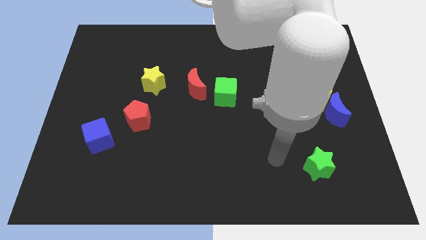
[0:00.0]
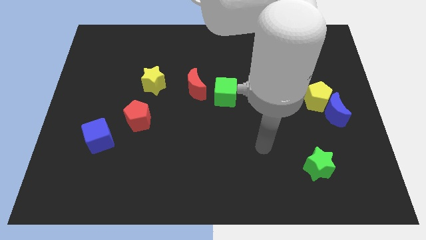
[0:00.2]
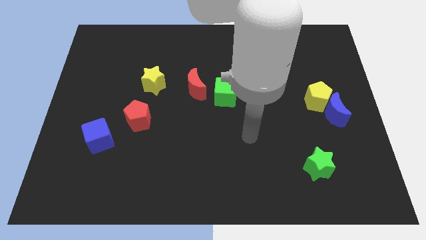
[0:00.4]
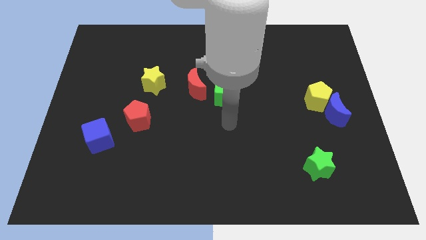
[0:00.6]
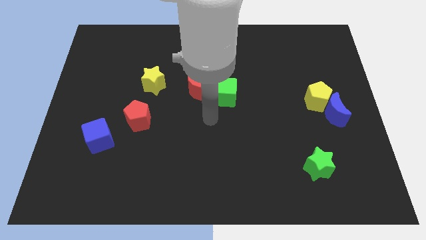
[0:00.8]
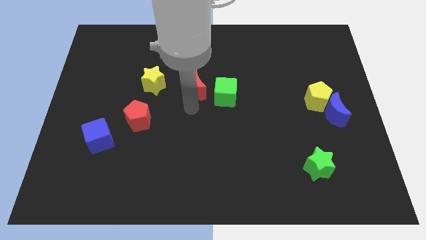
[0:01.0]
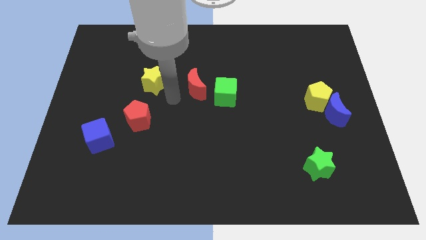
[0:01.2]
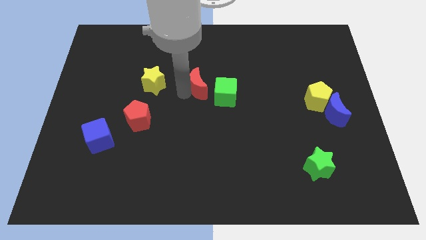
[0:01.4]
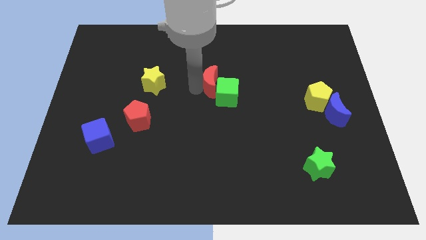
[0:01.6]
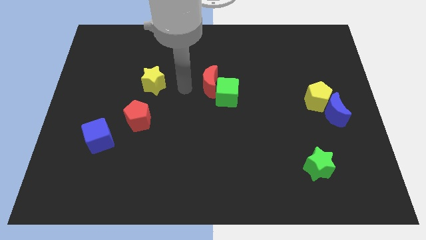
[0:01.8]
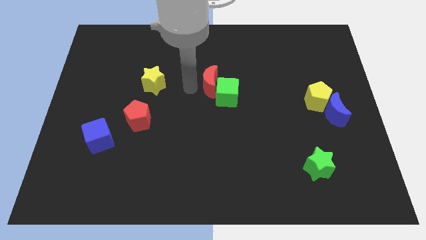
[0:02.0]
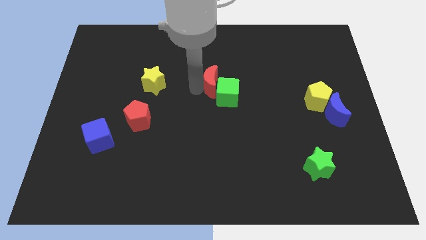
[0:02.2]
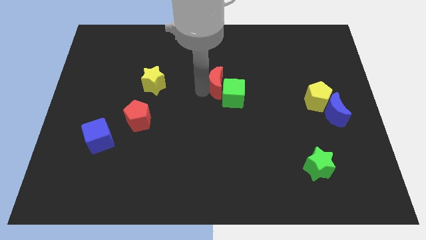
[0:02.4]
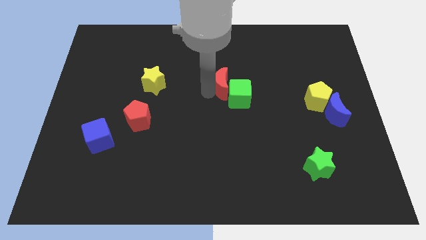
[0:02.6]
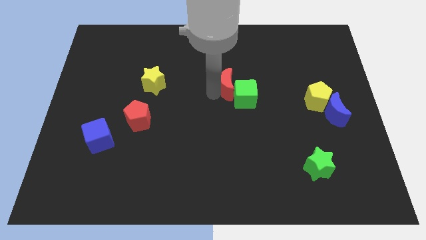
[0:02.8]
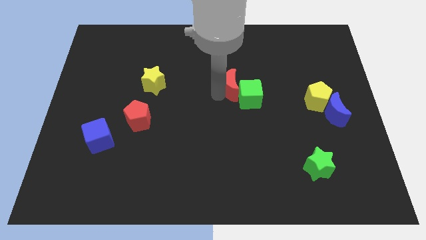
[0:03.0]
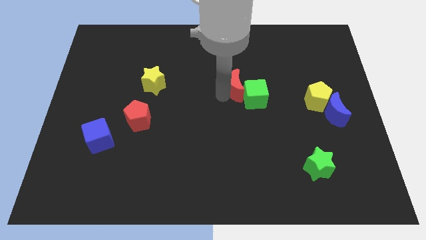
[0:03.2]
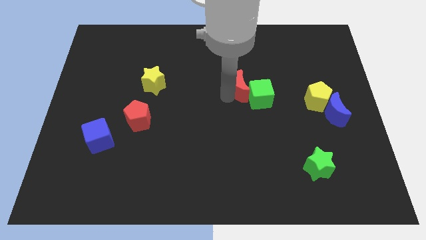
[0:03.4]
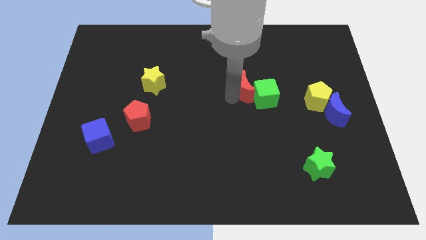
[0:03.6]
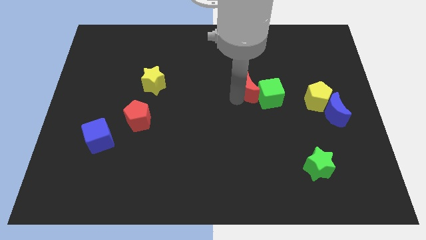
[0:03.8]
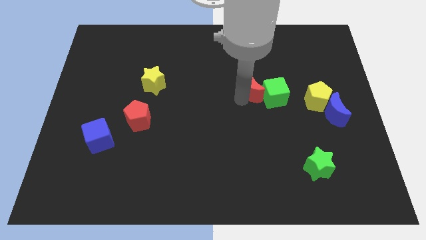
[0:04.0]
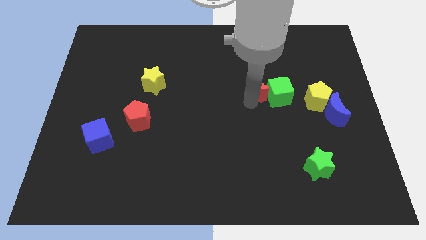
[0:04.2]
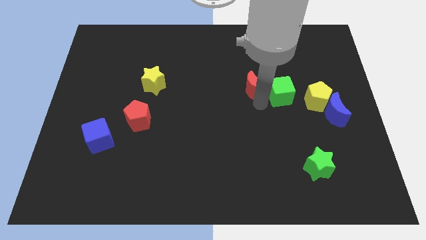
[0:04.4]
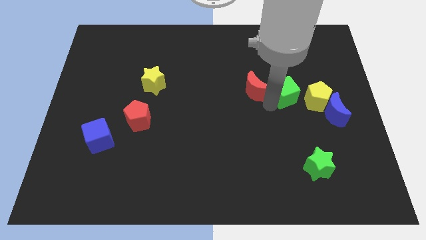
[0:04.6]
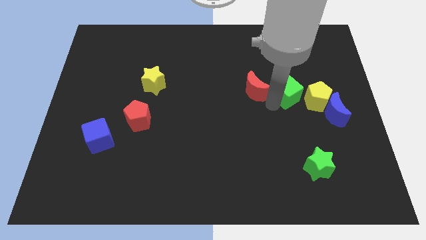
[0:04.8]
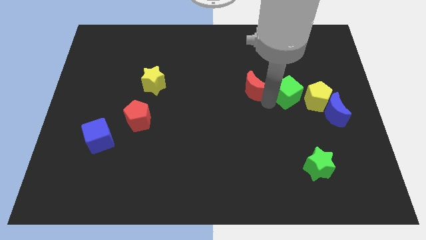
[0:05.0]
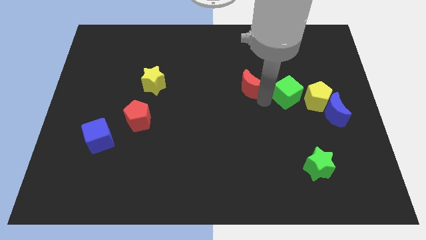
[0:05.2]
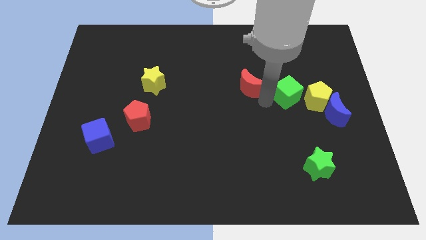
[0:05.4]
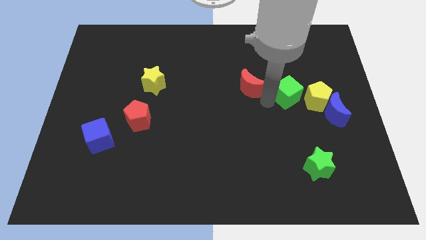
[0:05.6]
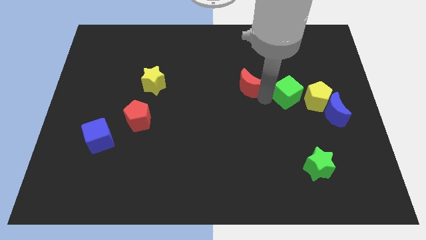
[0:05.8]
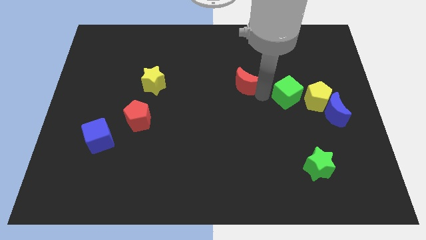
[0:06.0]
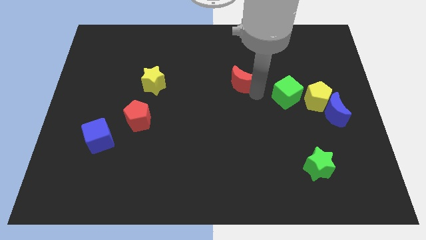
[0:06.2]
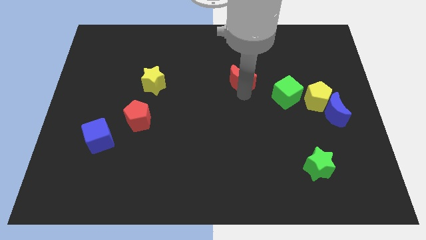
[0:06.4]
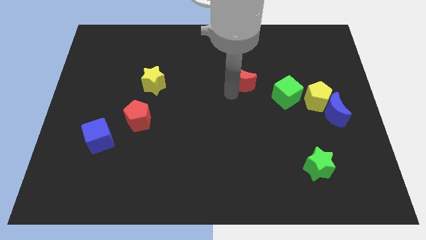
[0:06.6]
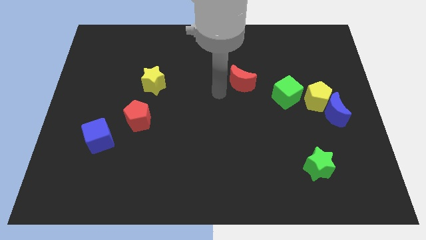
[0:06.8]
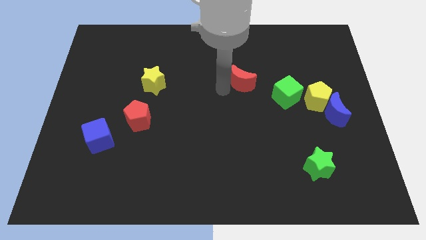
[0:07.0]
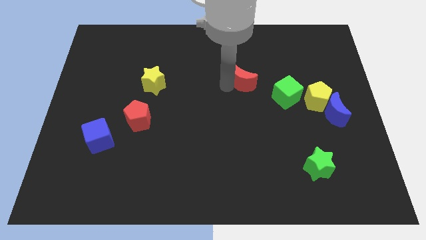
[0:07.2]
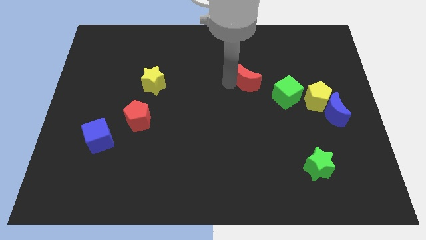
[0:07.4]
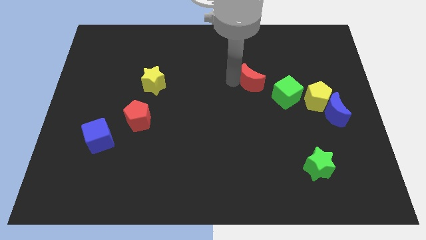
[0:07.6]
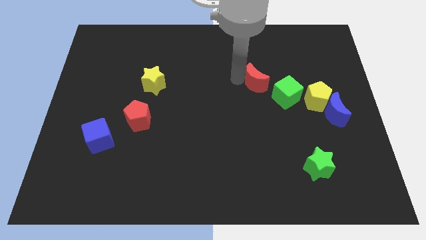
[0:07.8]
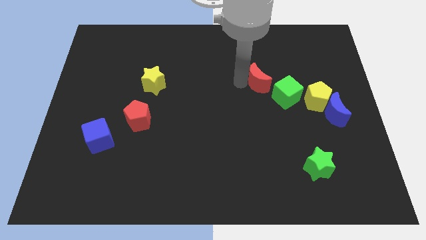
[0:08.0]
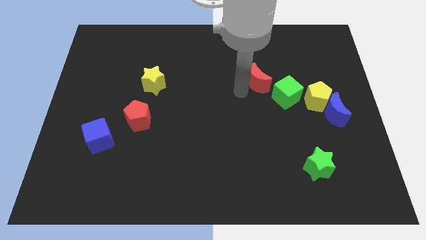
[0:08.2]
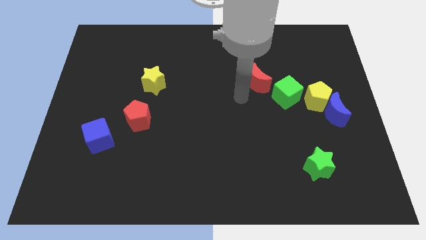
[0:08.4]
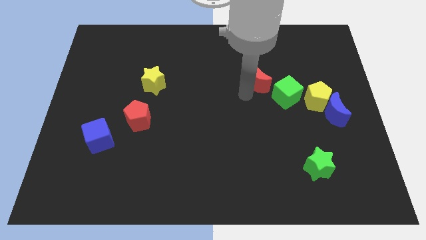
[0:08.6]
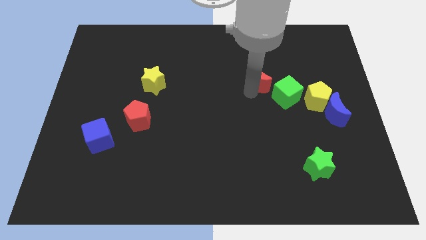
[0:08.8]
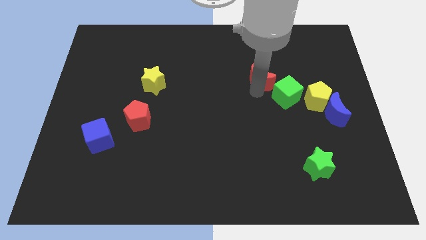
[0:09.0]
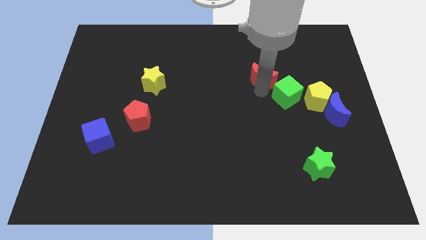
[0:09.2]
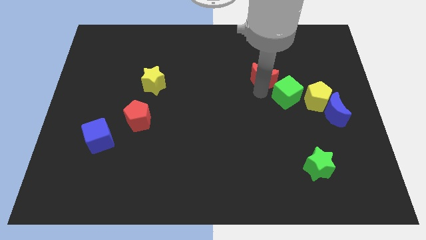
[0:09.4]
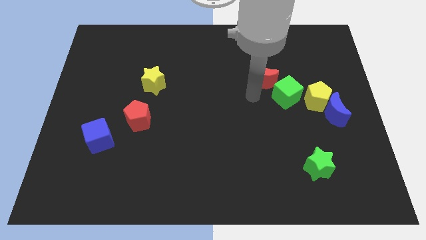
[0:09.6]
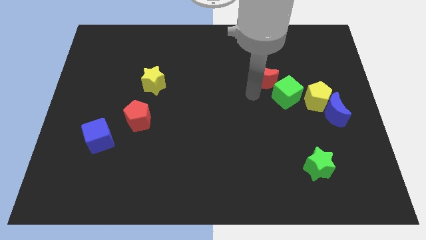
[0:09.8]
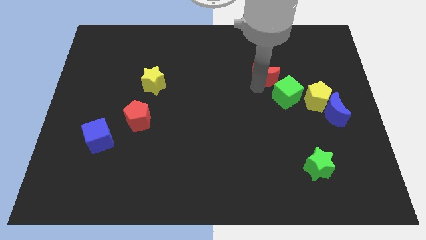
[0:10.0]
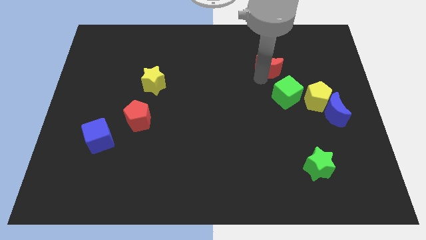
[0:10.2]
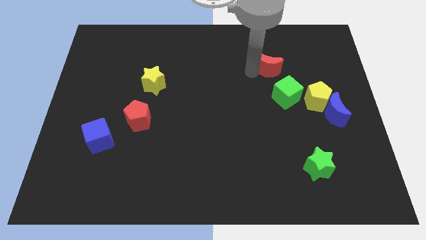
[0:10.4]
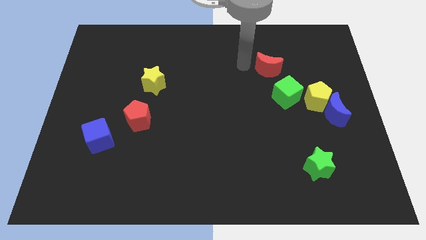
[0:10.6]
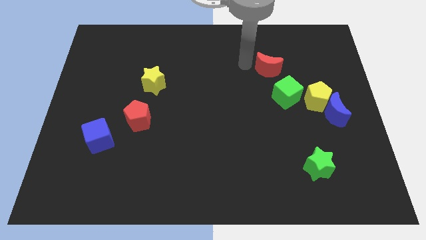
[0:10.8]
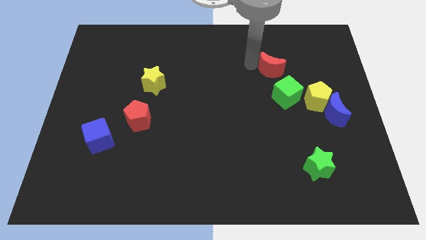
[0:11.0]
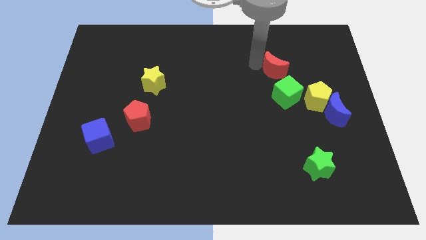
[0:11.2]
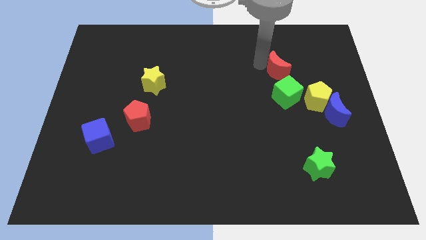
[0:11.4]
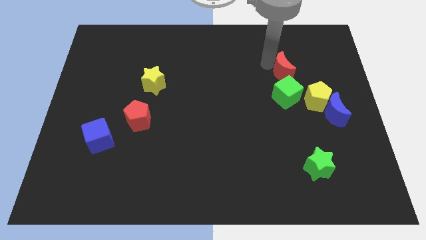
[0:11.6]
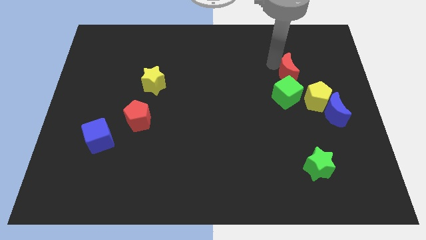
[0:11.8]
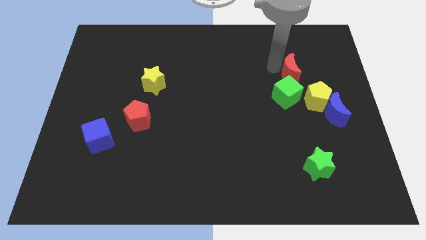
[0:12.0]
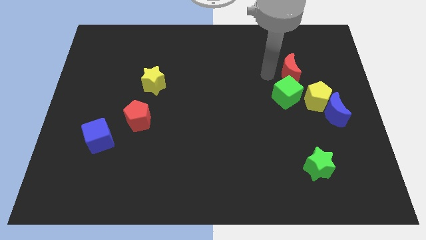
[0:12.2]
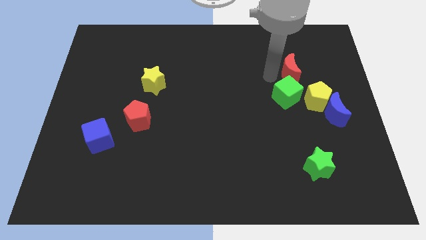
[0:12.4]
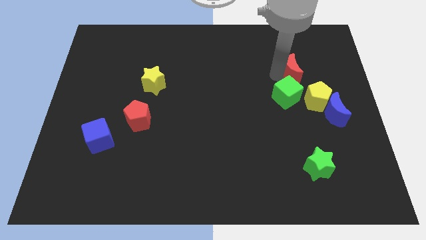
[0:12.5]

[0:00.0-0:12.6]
slide the red moon to the top of the yellow pentagon
